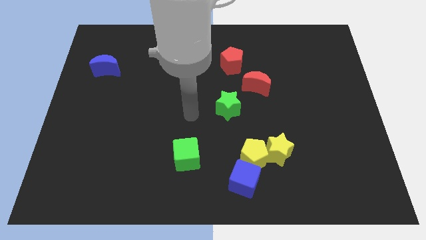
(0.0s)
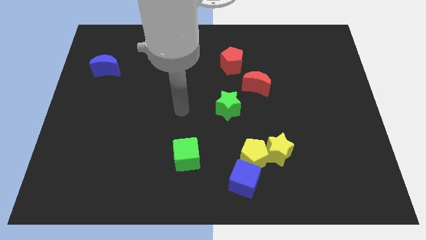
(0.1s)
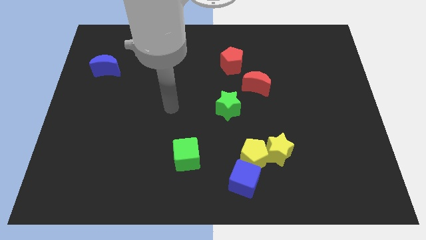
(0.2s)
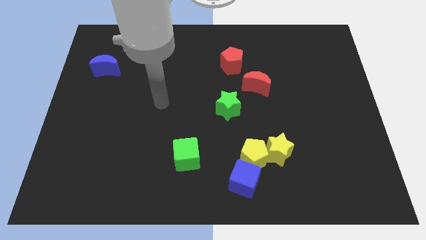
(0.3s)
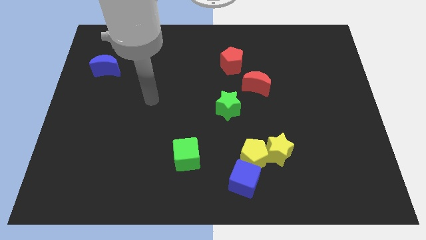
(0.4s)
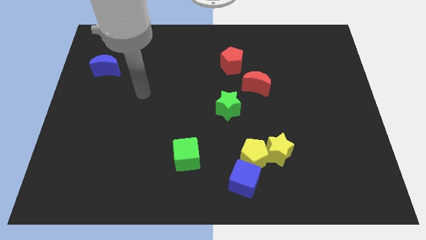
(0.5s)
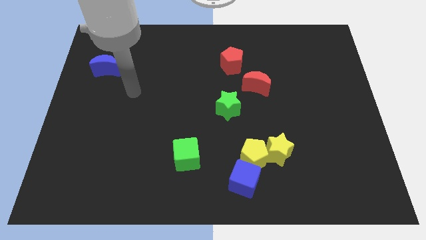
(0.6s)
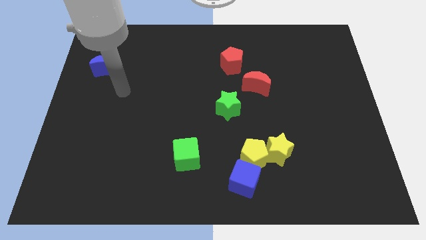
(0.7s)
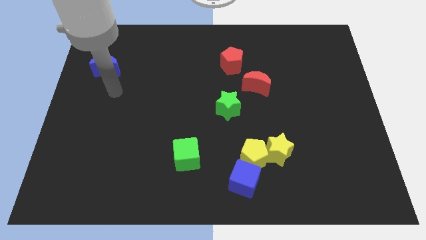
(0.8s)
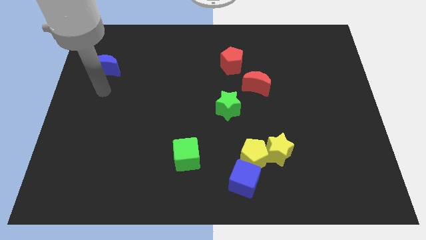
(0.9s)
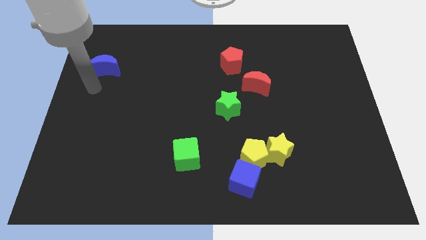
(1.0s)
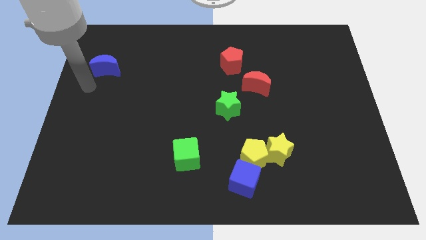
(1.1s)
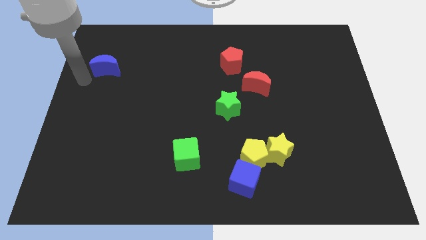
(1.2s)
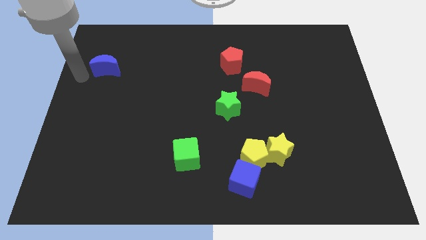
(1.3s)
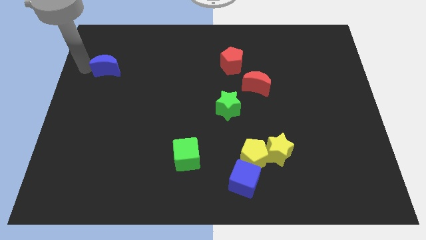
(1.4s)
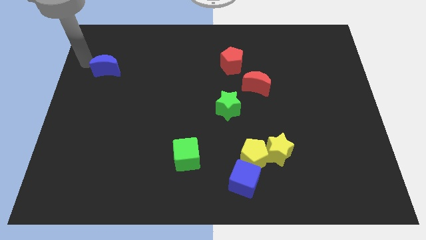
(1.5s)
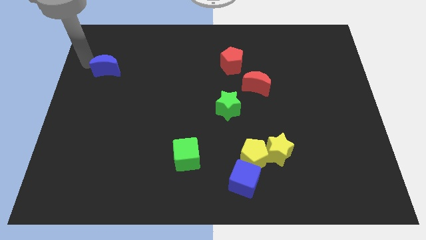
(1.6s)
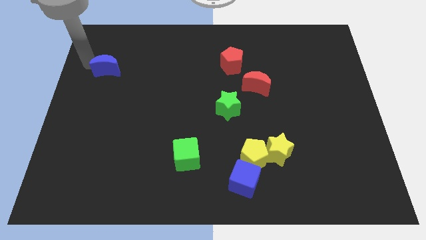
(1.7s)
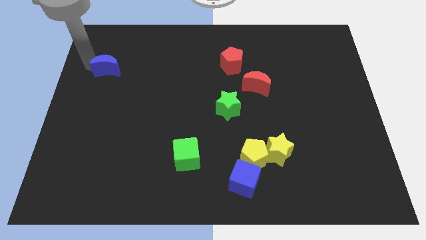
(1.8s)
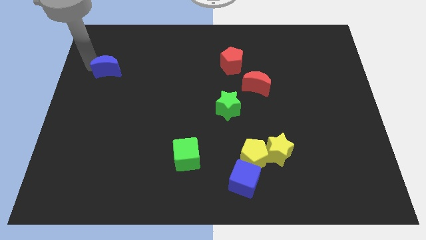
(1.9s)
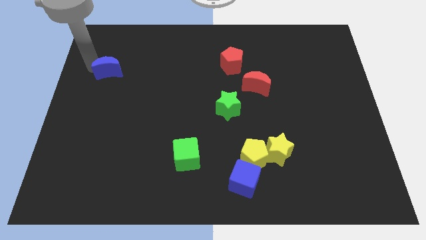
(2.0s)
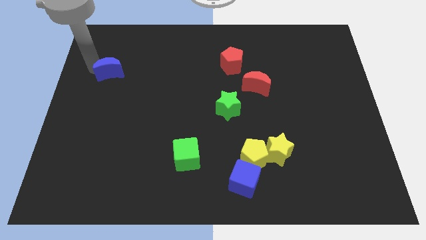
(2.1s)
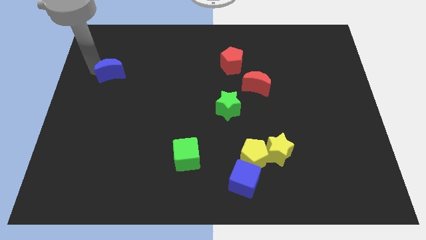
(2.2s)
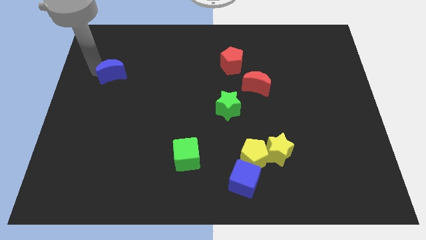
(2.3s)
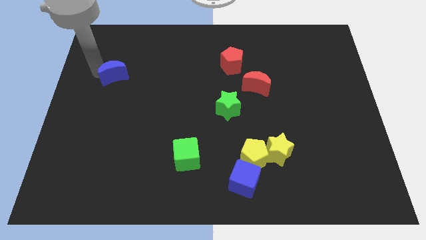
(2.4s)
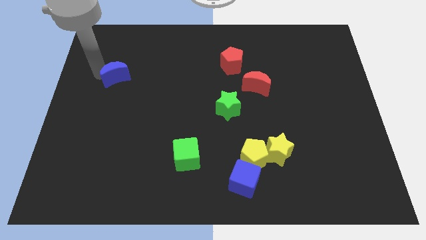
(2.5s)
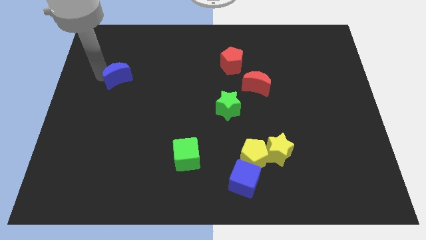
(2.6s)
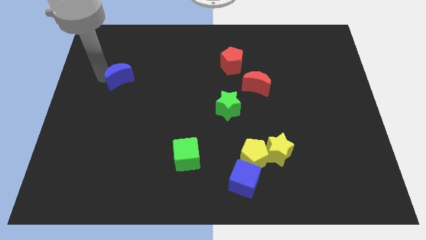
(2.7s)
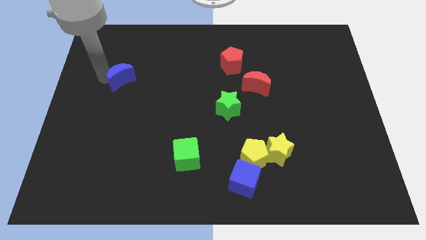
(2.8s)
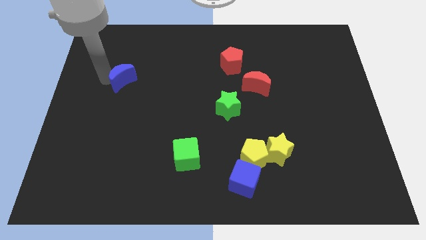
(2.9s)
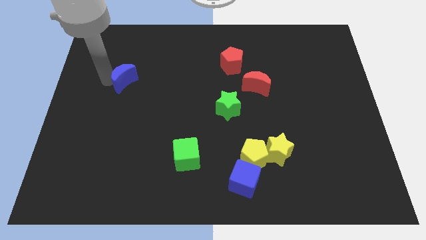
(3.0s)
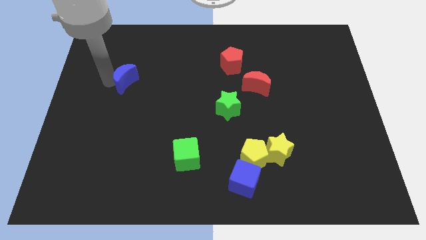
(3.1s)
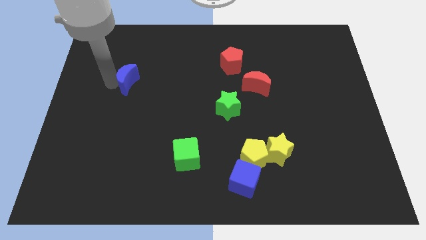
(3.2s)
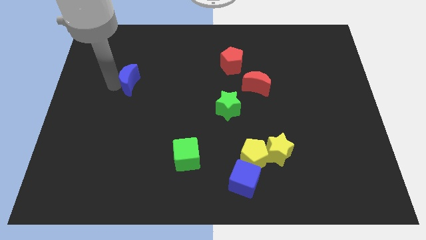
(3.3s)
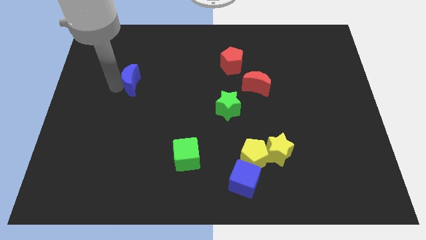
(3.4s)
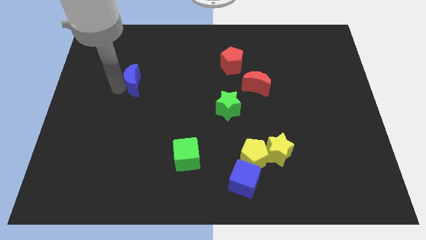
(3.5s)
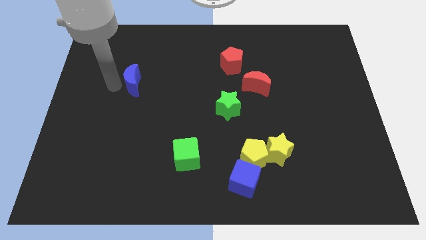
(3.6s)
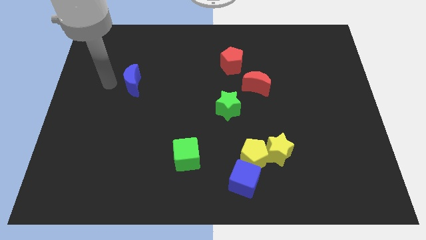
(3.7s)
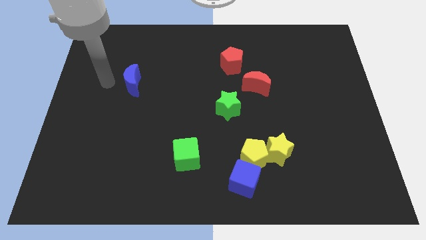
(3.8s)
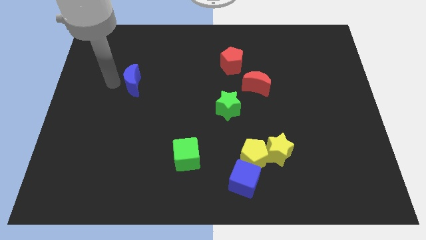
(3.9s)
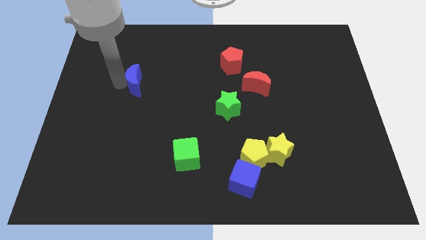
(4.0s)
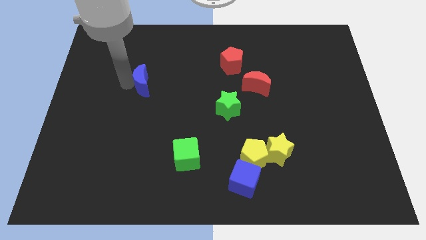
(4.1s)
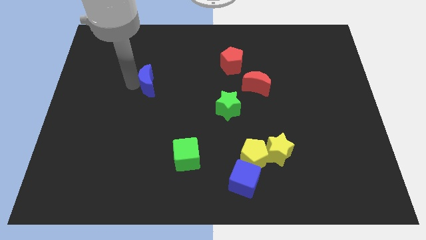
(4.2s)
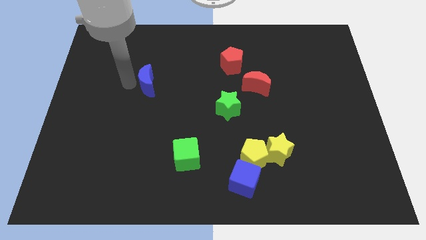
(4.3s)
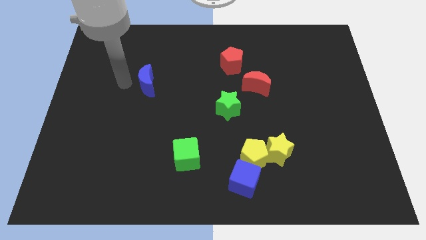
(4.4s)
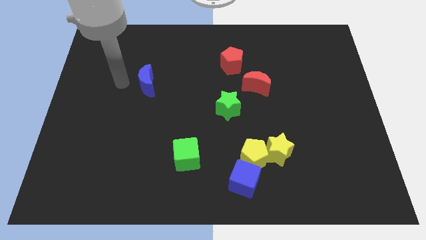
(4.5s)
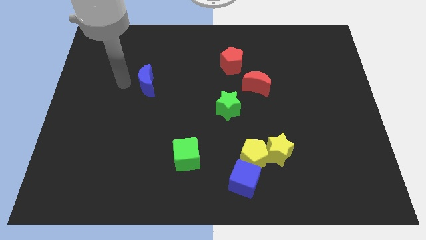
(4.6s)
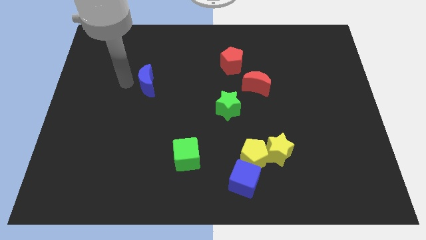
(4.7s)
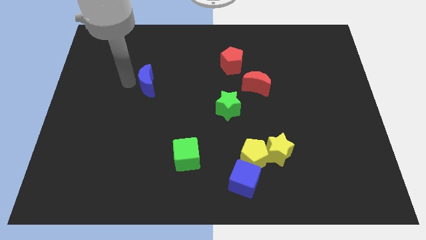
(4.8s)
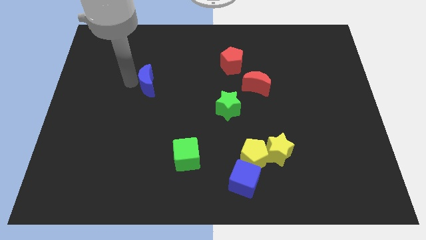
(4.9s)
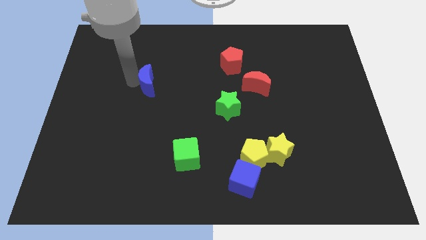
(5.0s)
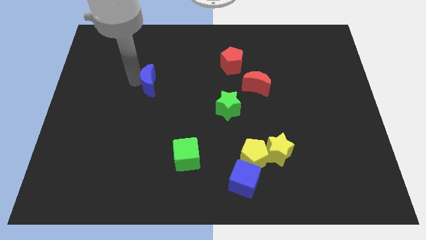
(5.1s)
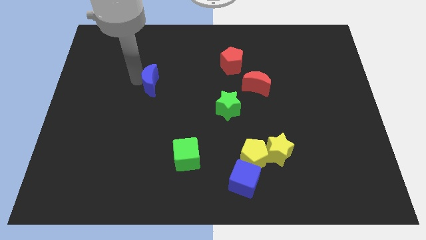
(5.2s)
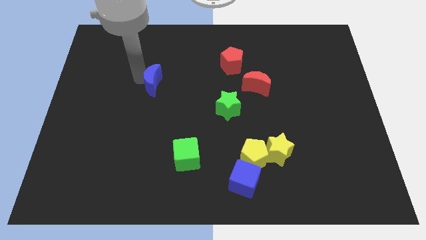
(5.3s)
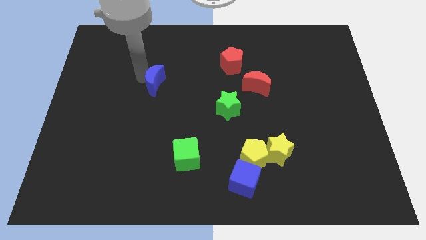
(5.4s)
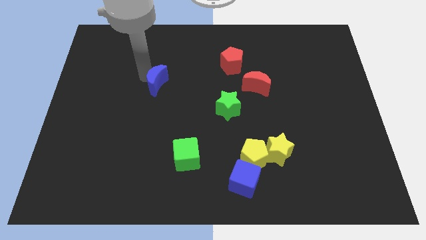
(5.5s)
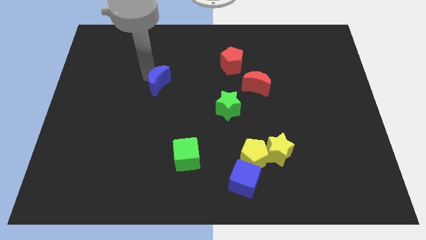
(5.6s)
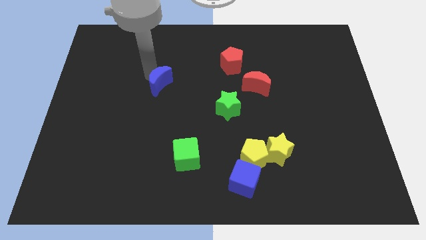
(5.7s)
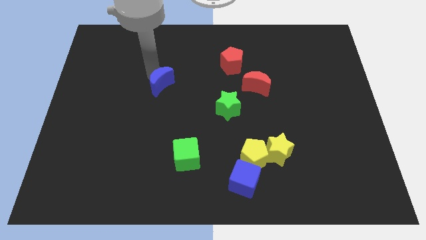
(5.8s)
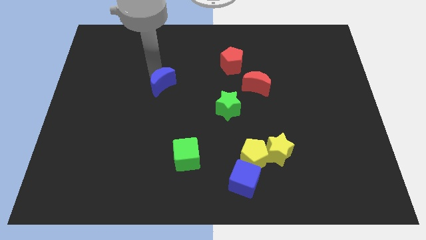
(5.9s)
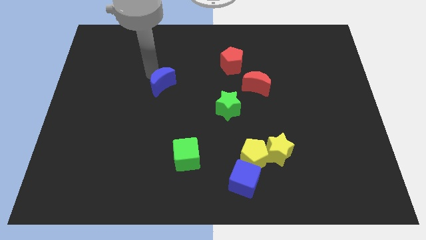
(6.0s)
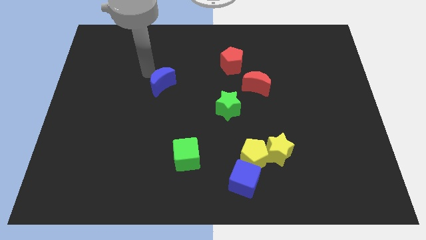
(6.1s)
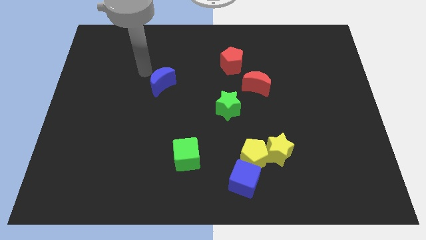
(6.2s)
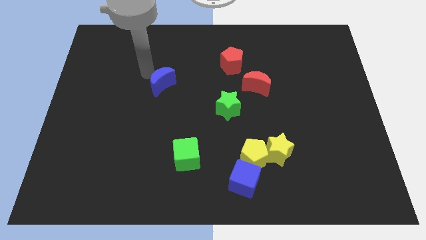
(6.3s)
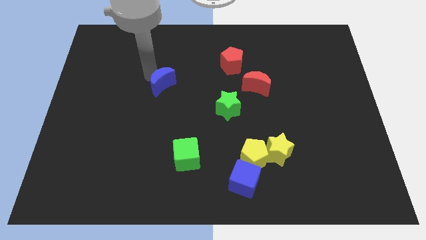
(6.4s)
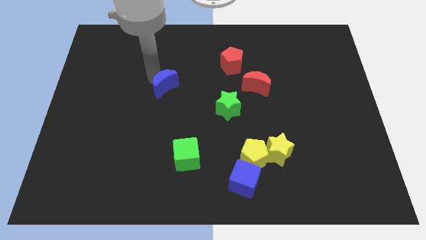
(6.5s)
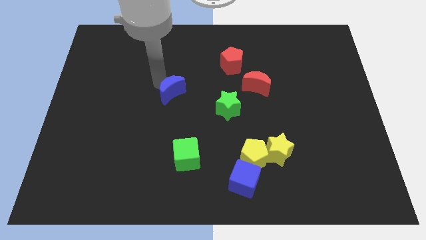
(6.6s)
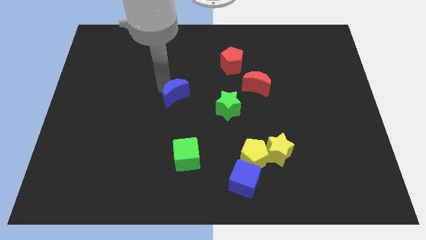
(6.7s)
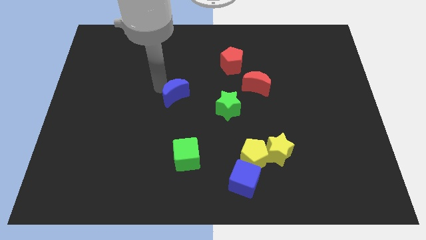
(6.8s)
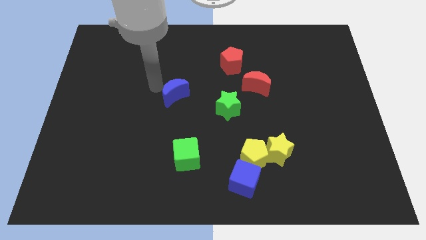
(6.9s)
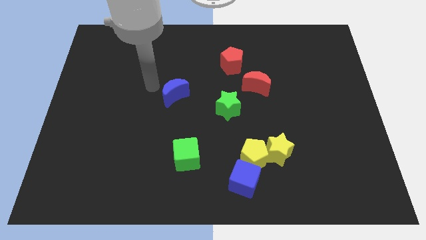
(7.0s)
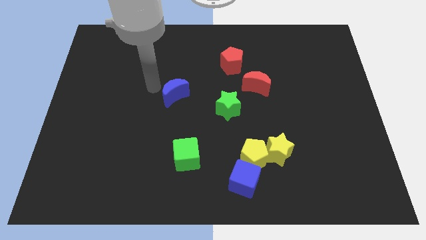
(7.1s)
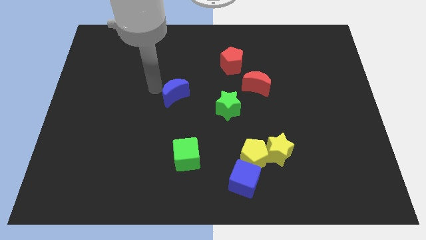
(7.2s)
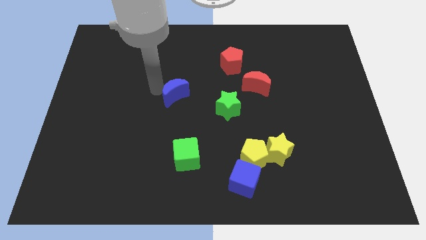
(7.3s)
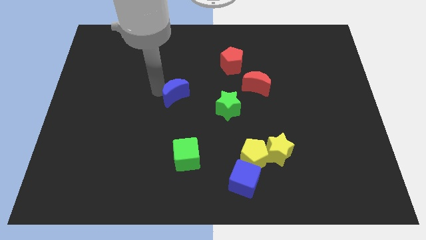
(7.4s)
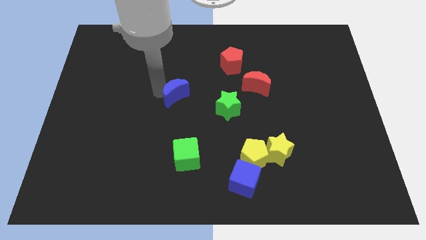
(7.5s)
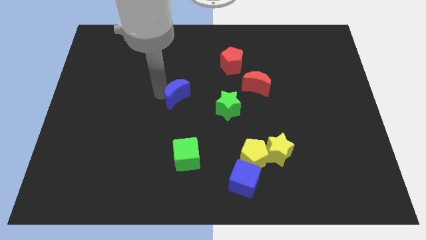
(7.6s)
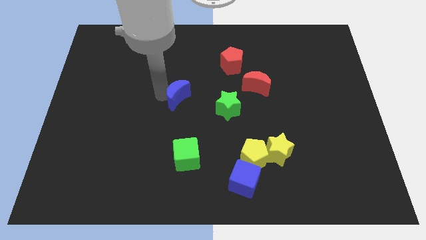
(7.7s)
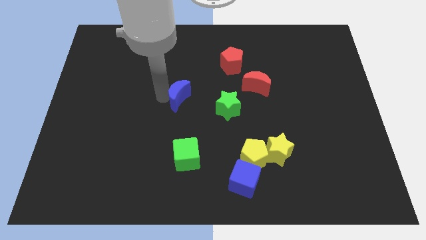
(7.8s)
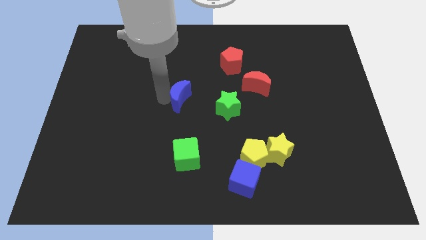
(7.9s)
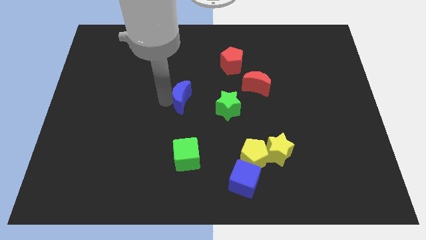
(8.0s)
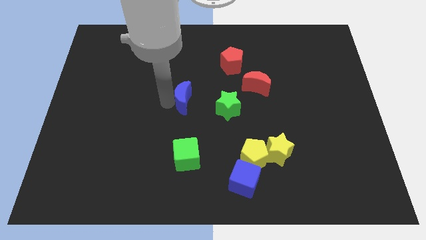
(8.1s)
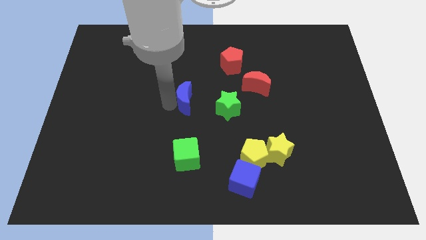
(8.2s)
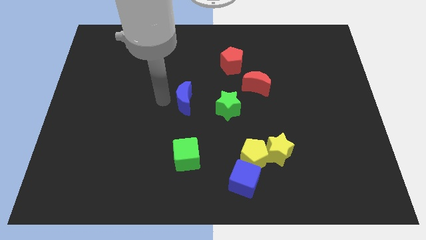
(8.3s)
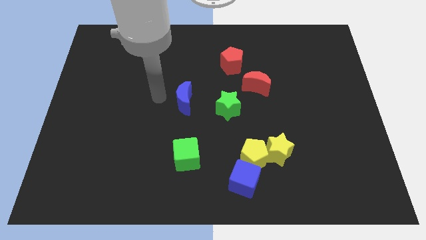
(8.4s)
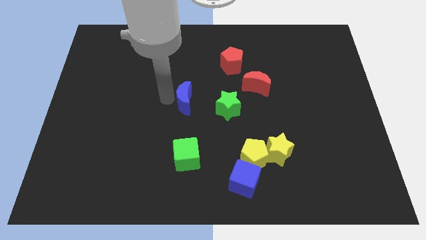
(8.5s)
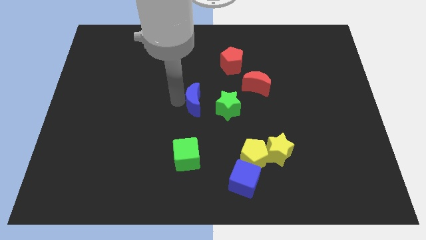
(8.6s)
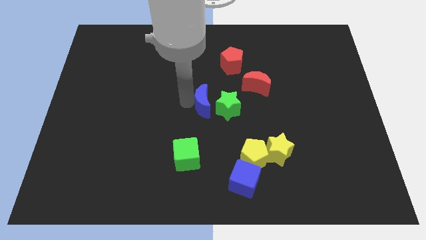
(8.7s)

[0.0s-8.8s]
move the blue moon towards the green star
